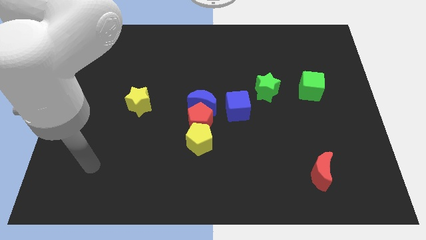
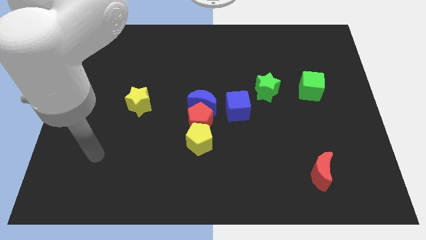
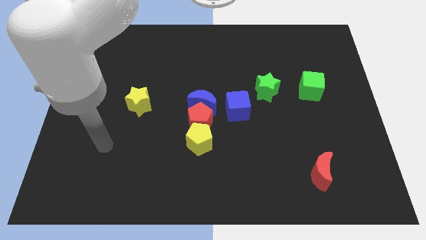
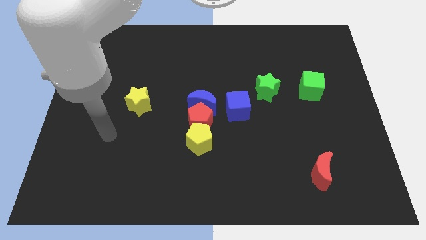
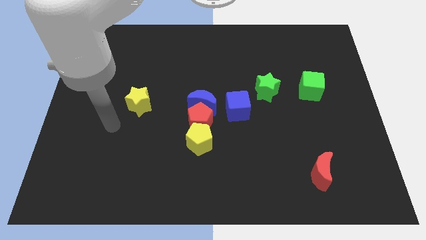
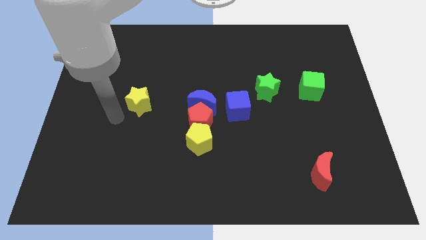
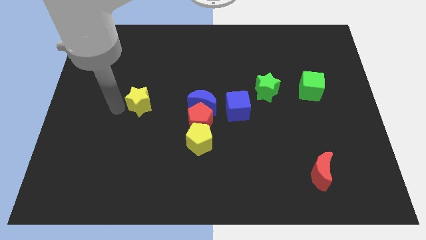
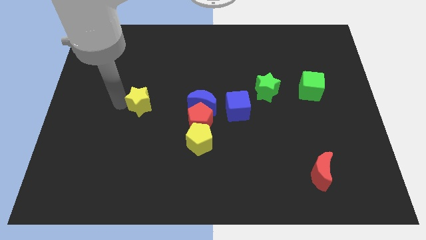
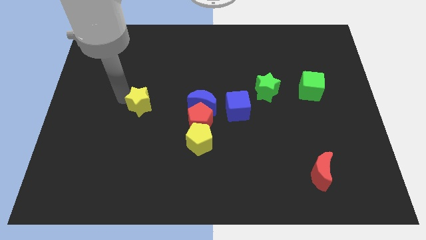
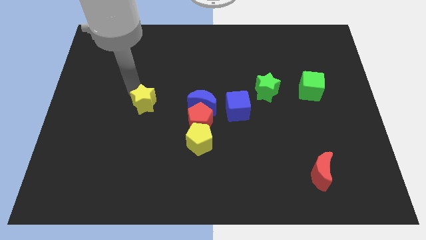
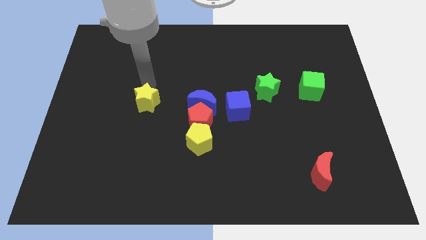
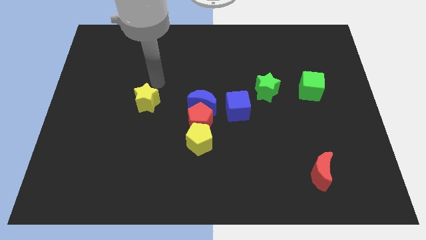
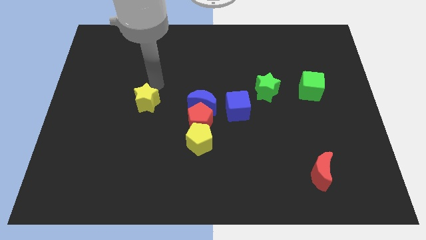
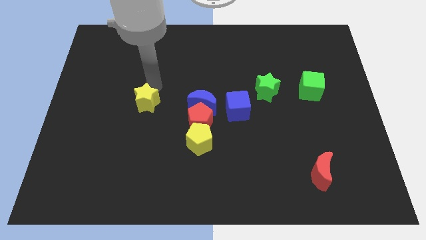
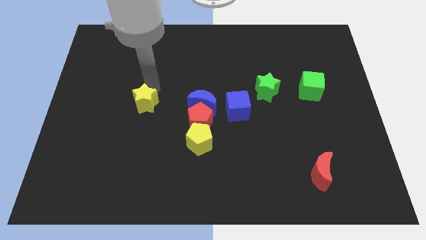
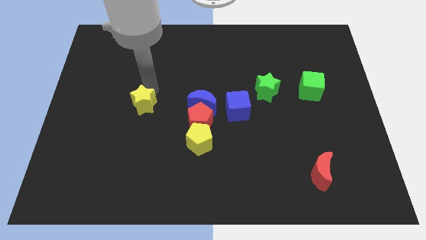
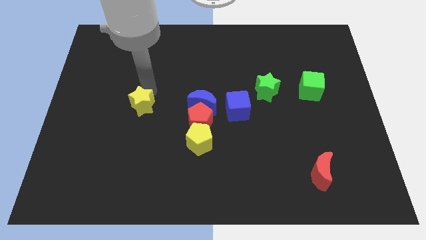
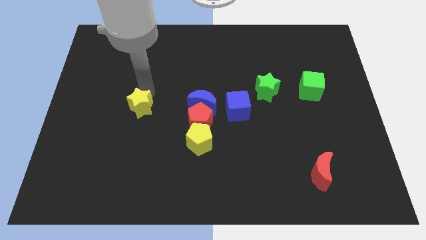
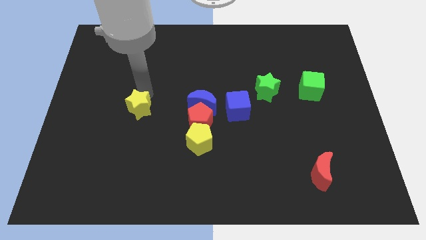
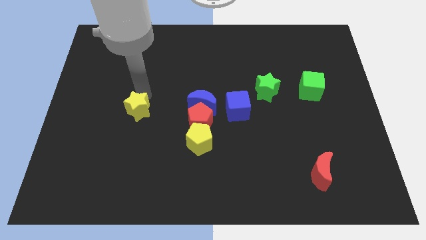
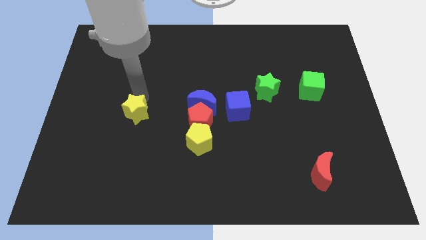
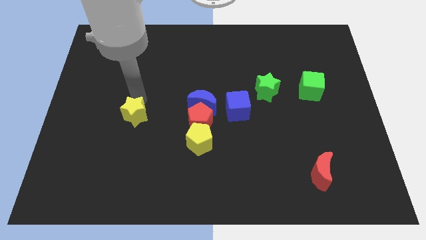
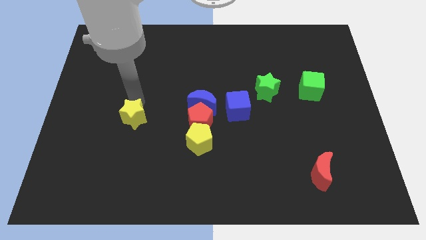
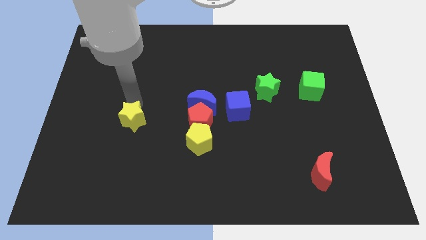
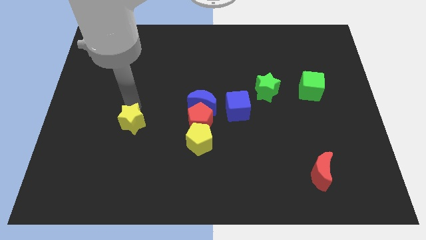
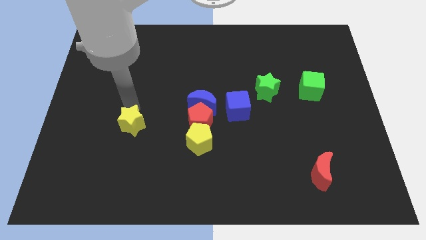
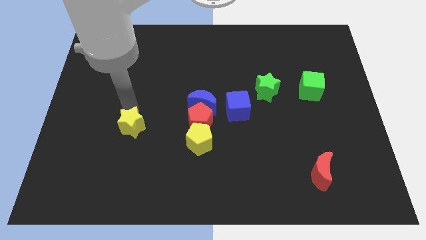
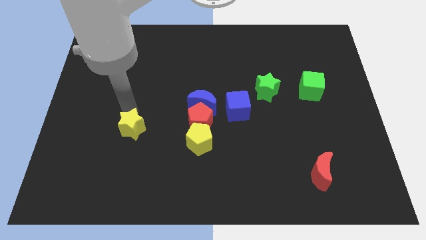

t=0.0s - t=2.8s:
slightly slide the yellow star downwards

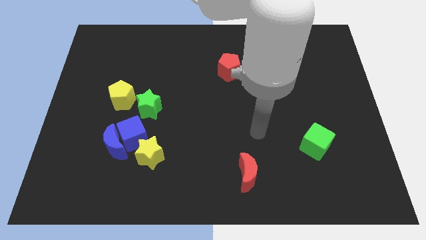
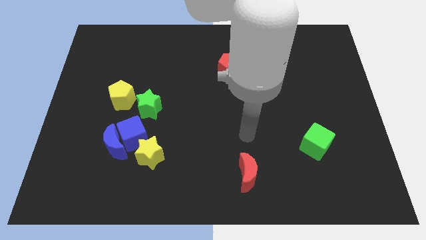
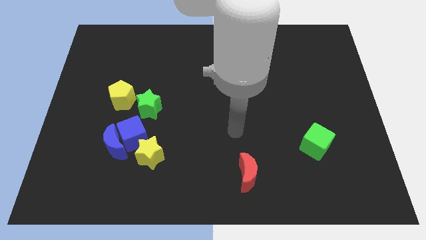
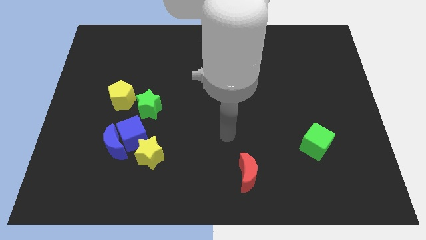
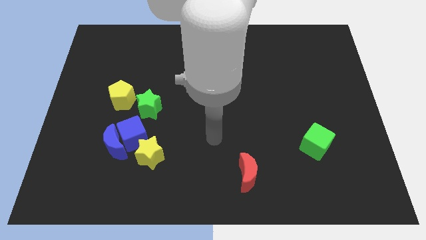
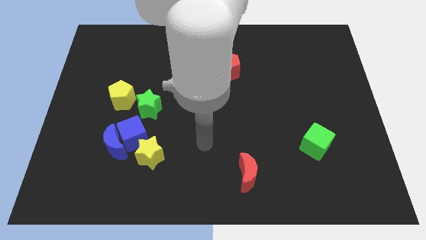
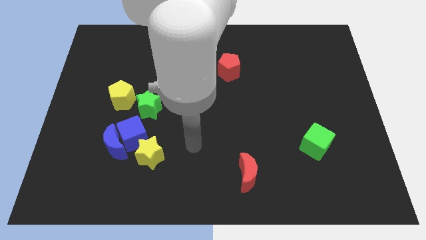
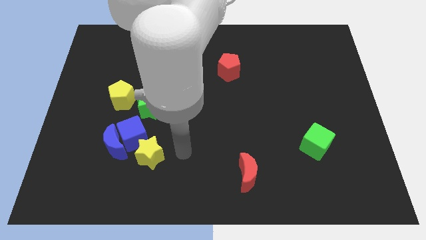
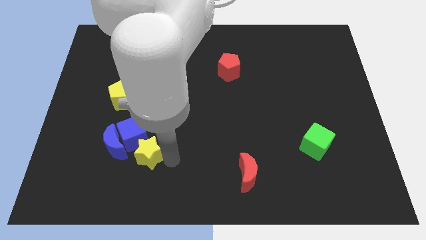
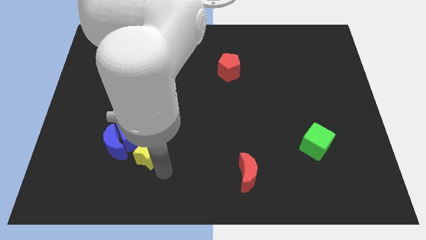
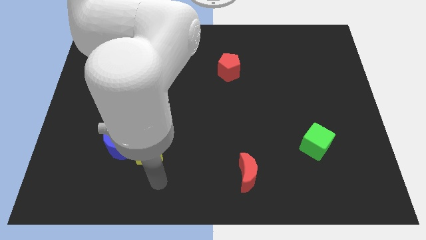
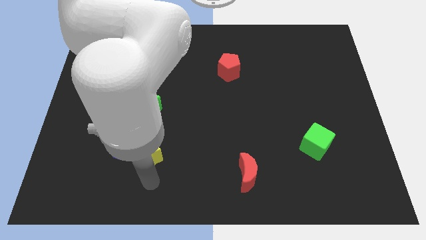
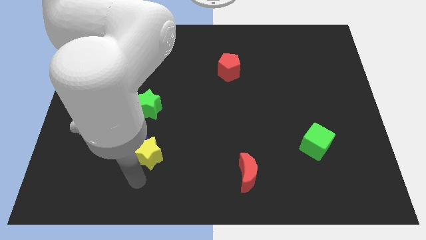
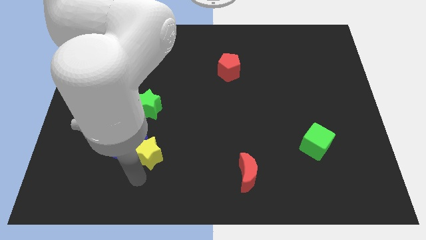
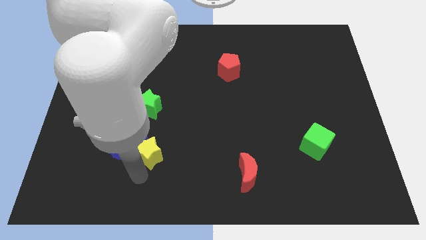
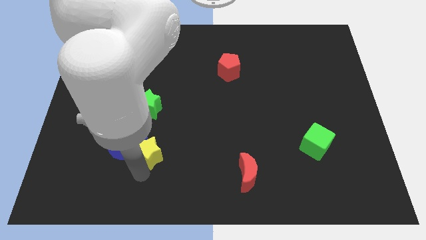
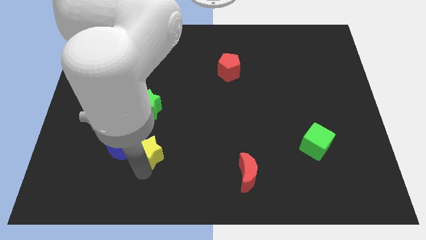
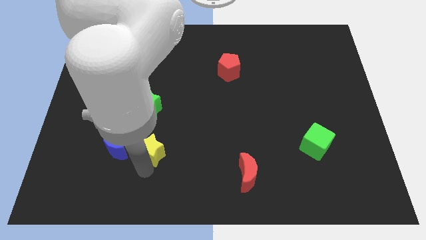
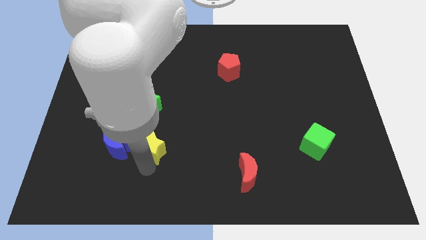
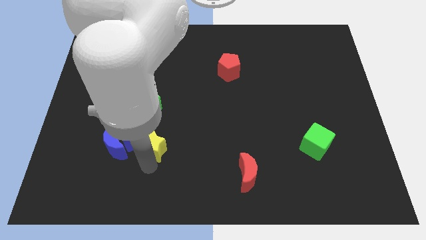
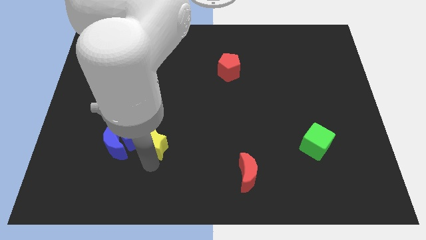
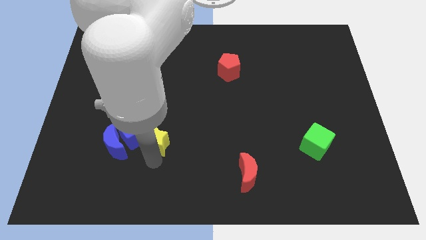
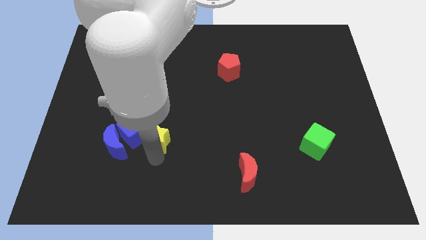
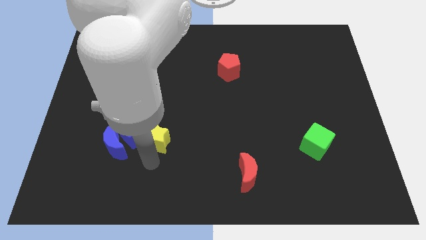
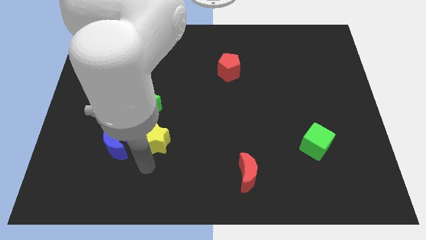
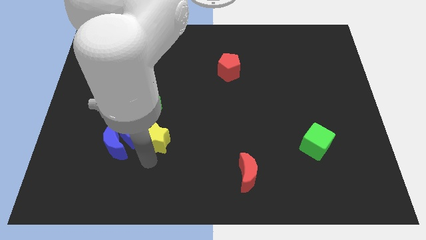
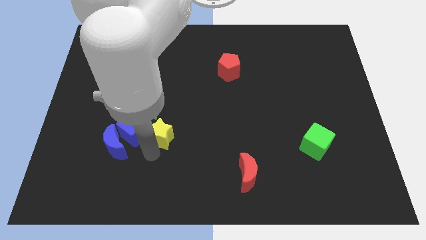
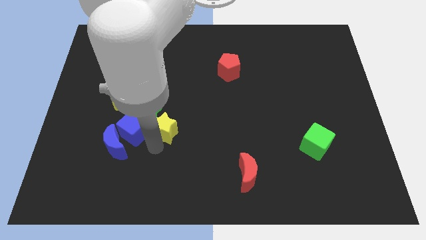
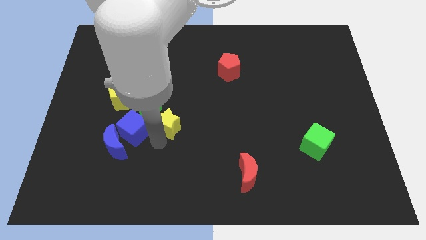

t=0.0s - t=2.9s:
push the yellow star upwards slightly

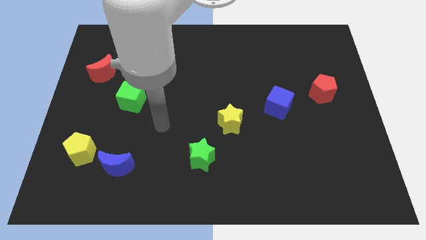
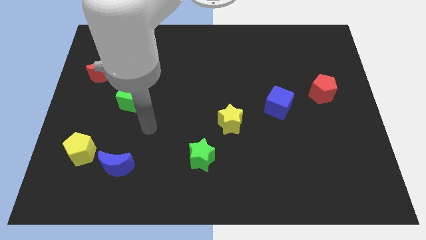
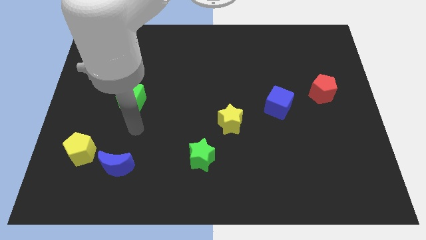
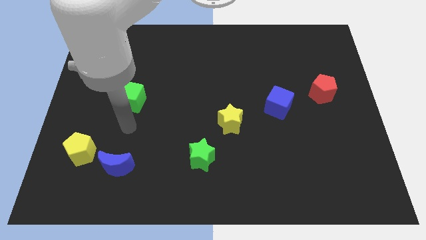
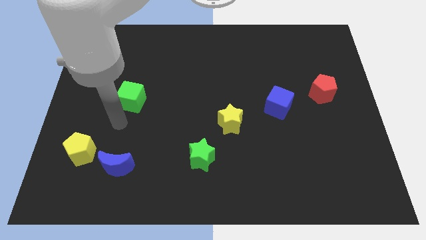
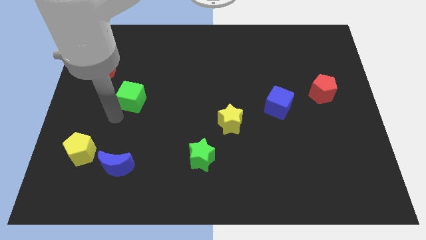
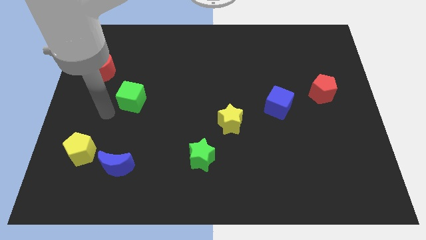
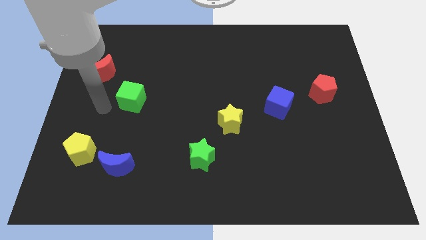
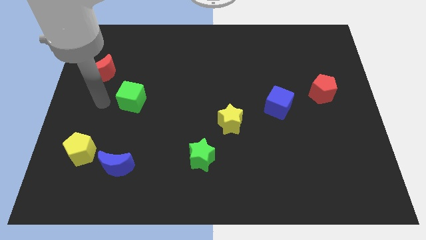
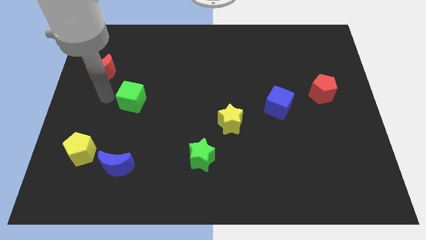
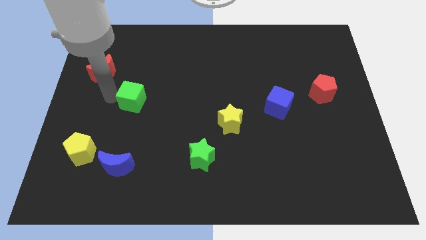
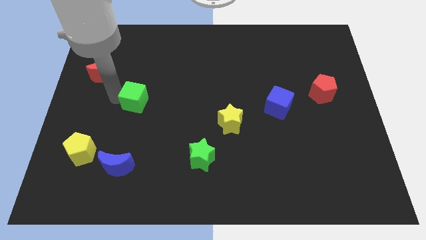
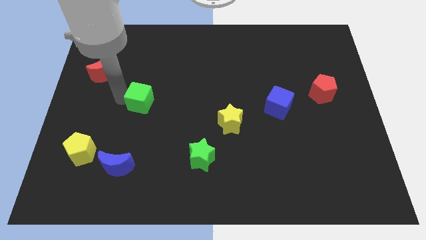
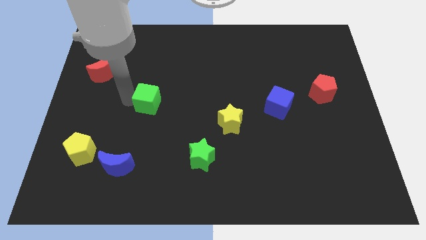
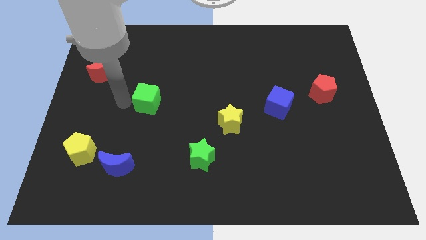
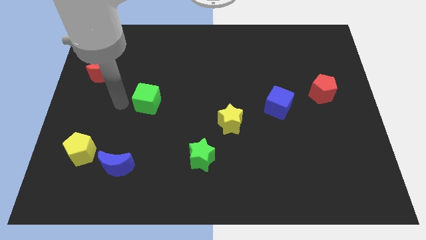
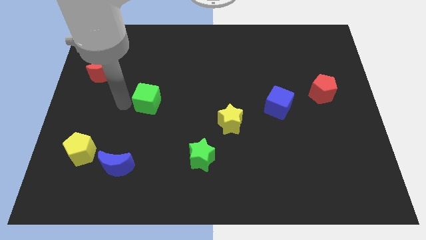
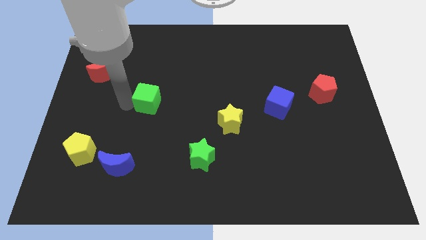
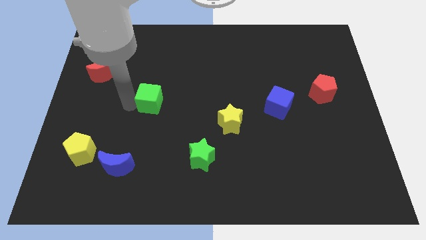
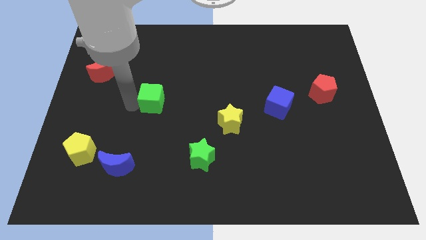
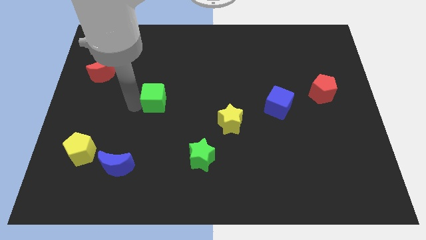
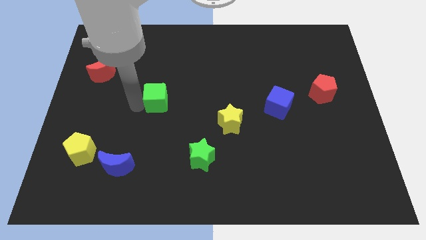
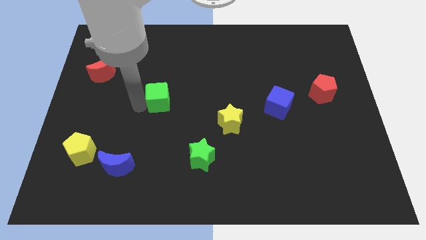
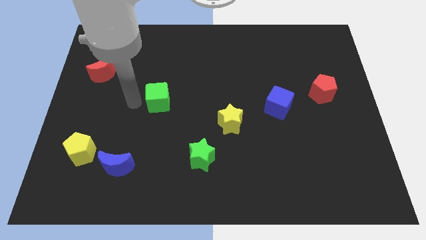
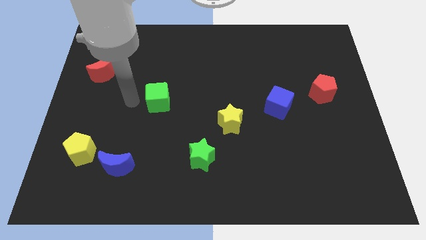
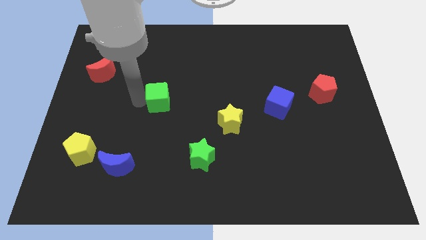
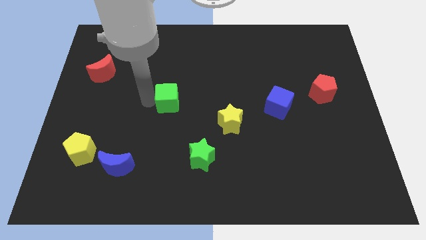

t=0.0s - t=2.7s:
slide the green cube to the right a little
